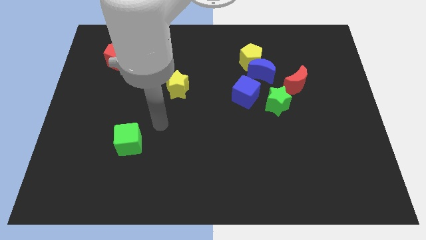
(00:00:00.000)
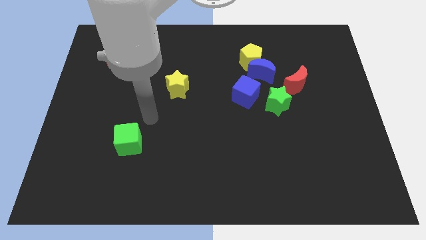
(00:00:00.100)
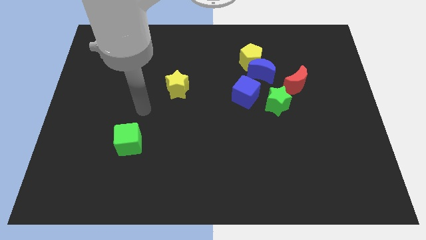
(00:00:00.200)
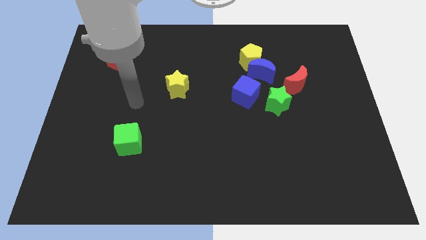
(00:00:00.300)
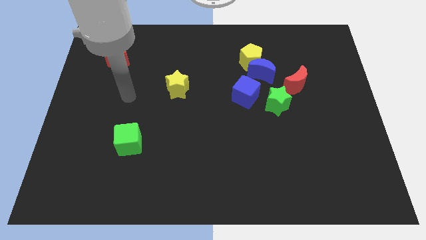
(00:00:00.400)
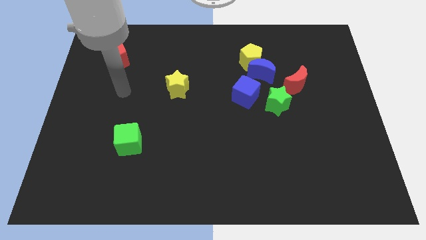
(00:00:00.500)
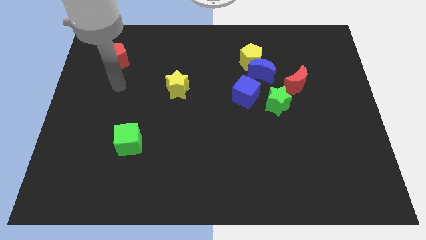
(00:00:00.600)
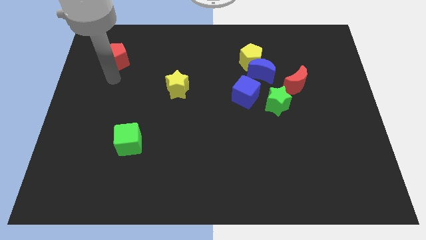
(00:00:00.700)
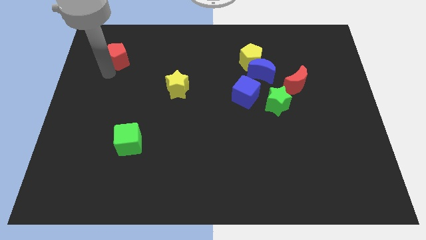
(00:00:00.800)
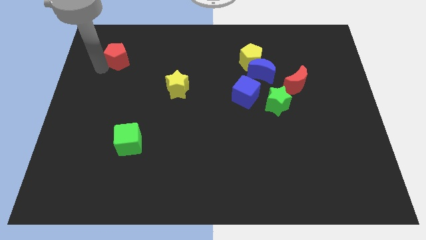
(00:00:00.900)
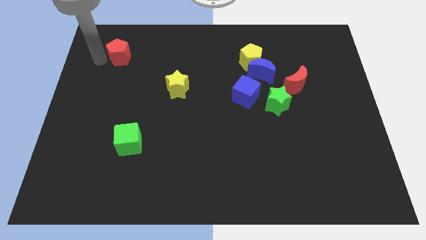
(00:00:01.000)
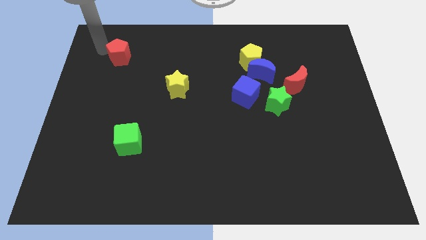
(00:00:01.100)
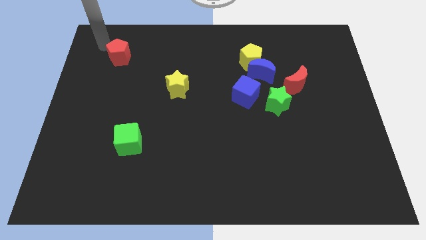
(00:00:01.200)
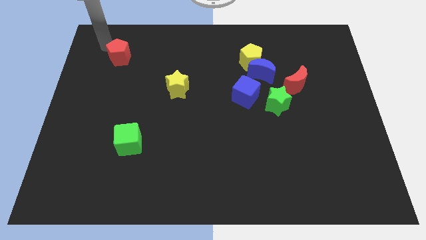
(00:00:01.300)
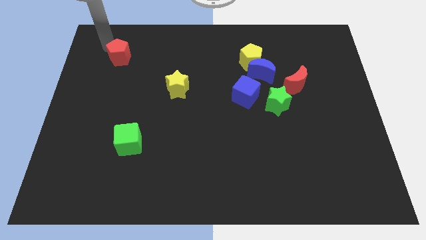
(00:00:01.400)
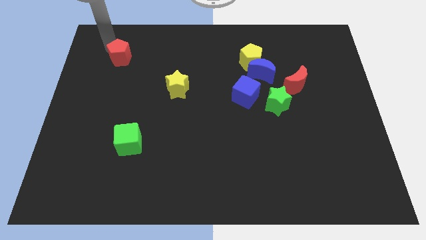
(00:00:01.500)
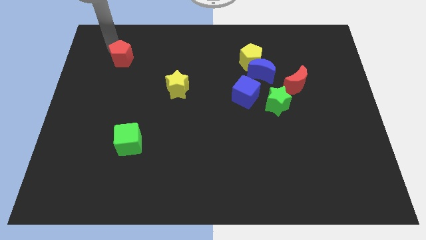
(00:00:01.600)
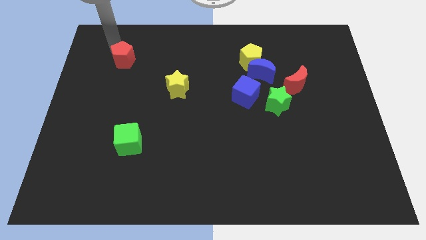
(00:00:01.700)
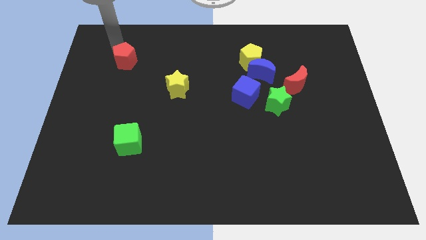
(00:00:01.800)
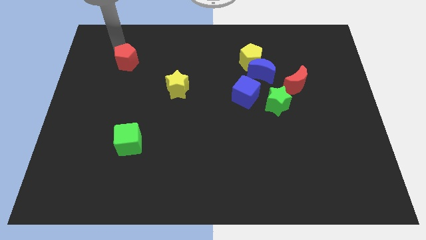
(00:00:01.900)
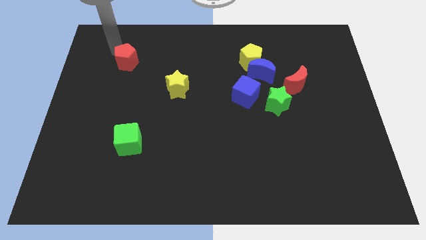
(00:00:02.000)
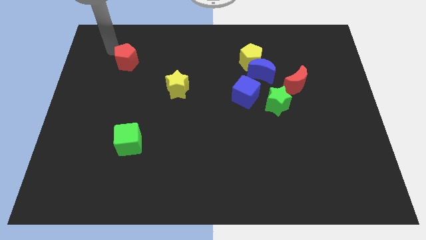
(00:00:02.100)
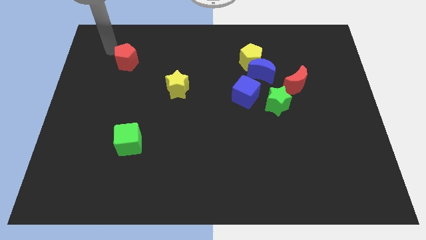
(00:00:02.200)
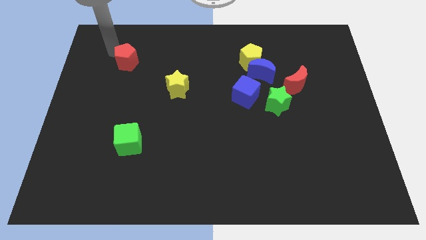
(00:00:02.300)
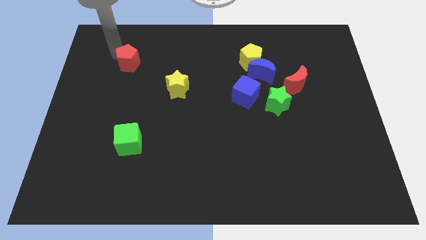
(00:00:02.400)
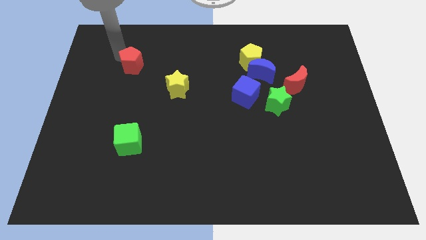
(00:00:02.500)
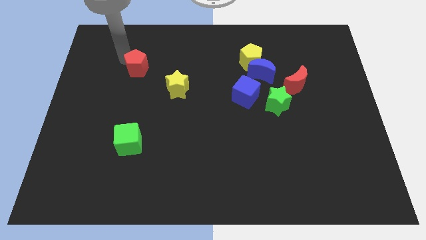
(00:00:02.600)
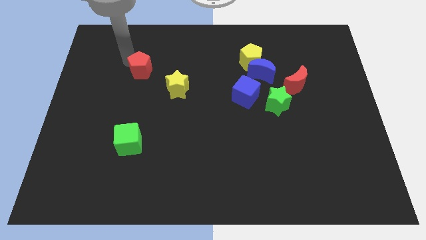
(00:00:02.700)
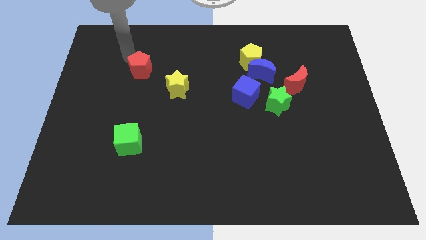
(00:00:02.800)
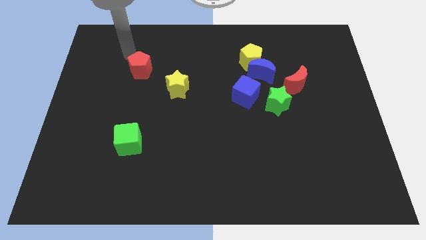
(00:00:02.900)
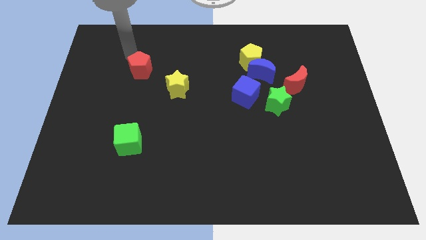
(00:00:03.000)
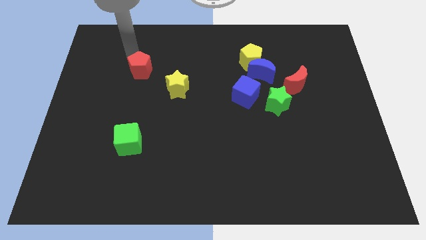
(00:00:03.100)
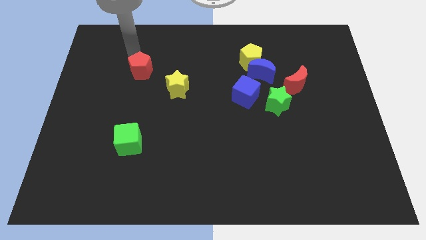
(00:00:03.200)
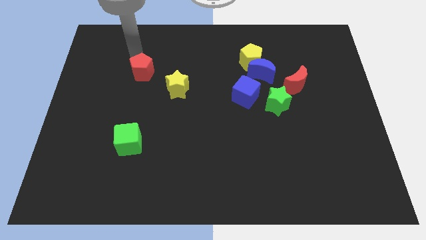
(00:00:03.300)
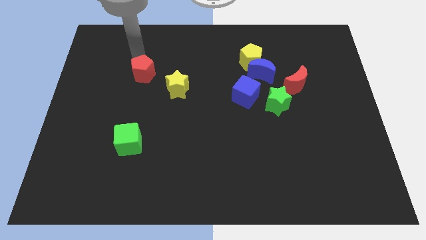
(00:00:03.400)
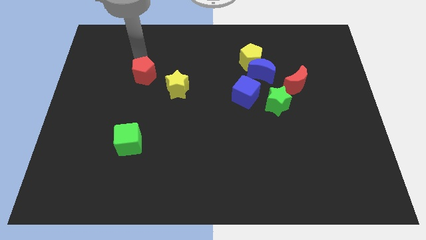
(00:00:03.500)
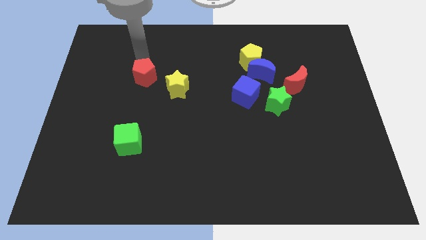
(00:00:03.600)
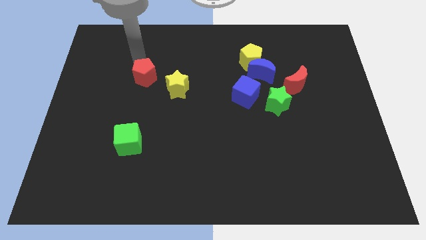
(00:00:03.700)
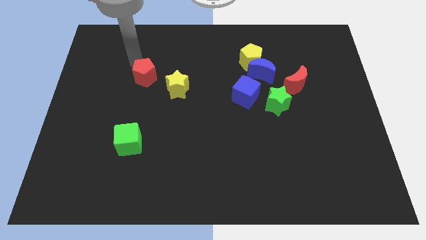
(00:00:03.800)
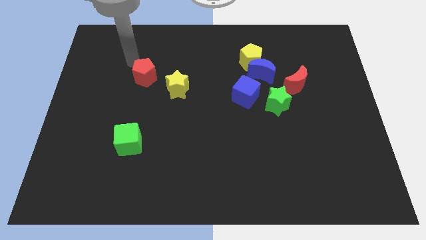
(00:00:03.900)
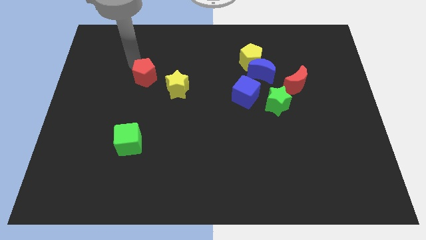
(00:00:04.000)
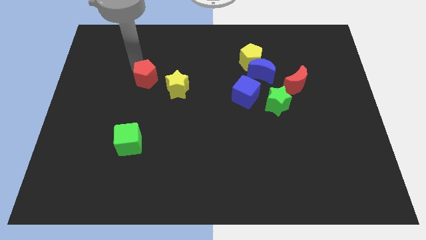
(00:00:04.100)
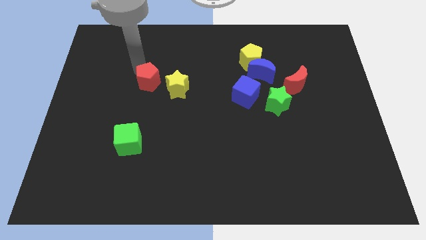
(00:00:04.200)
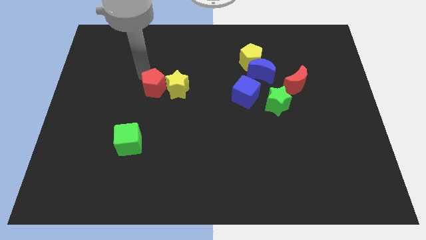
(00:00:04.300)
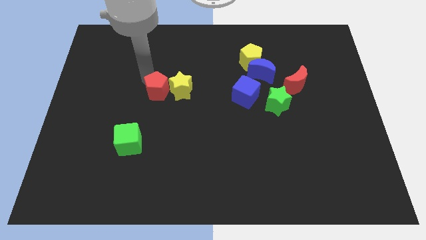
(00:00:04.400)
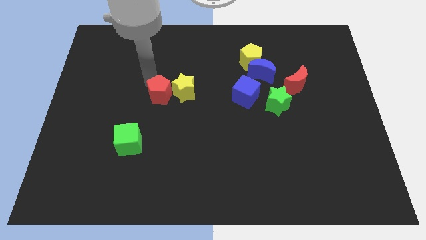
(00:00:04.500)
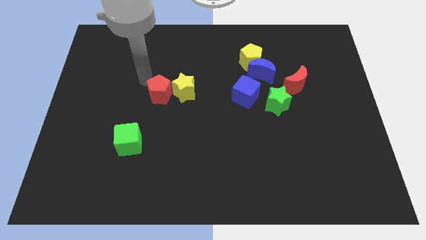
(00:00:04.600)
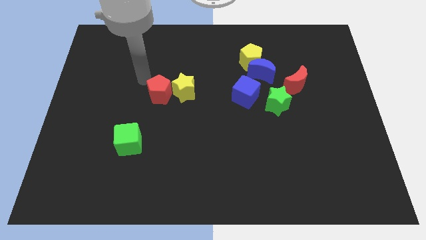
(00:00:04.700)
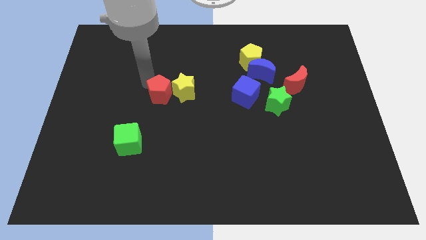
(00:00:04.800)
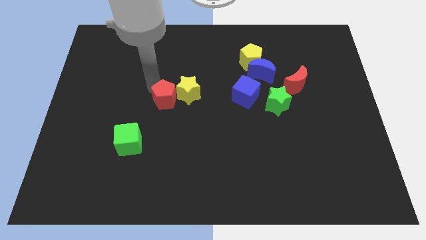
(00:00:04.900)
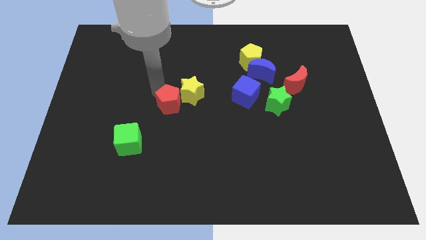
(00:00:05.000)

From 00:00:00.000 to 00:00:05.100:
move the red pentagon down and right diagonally

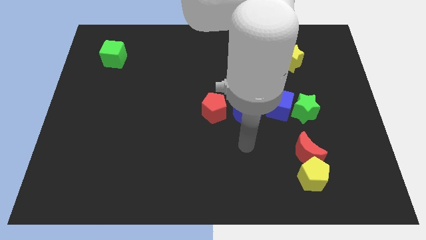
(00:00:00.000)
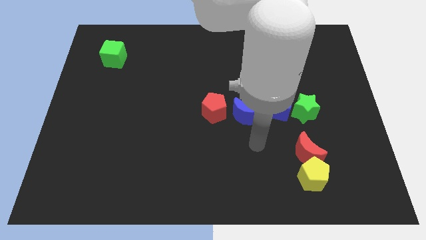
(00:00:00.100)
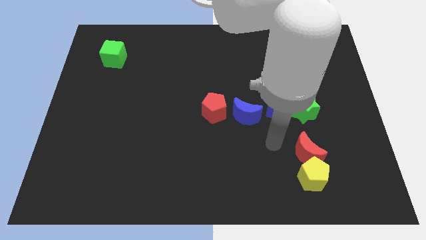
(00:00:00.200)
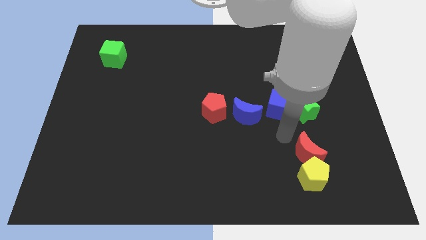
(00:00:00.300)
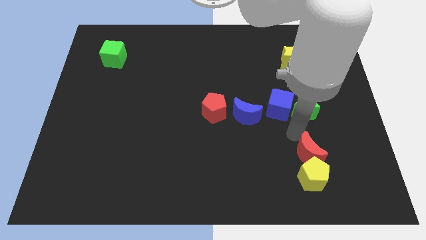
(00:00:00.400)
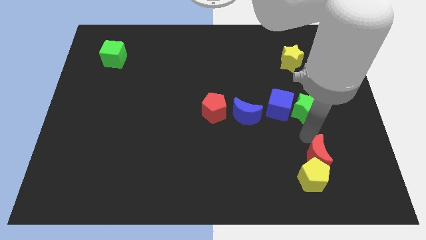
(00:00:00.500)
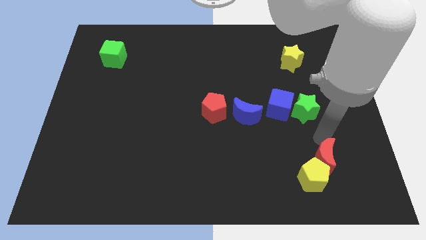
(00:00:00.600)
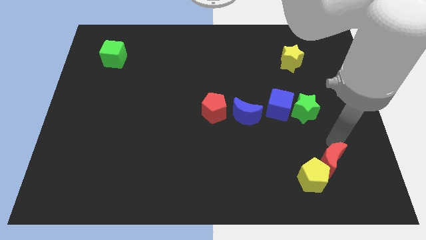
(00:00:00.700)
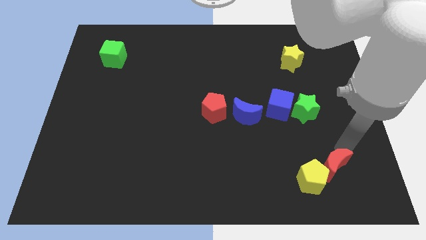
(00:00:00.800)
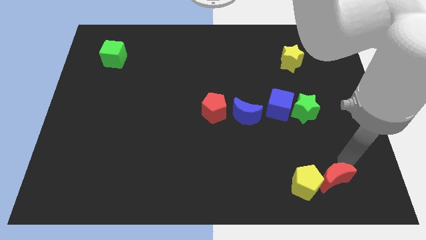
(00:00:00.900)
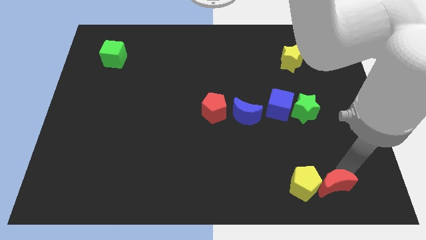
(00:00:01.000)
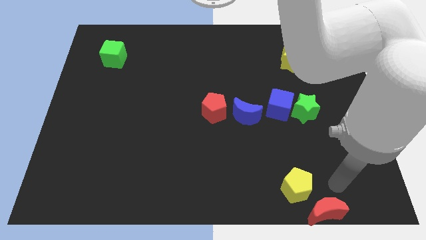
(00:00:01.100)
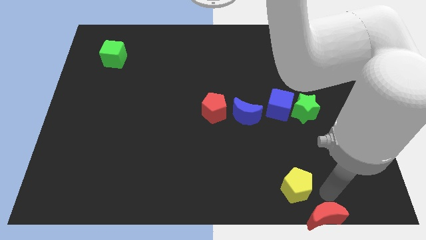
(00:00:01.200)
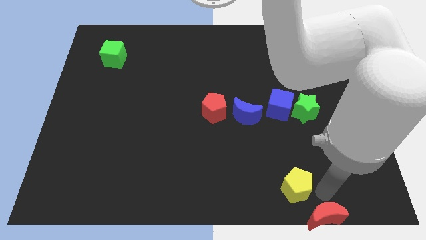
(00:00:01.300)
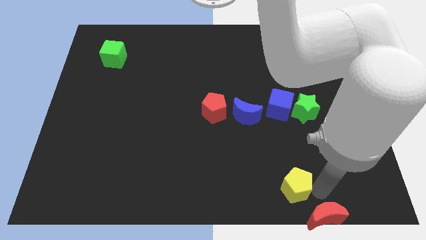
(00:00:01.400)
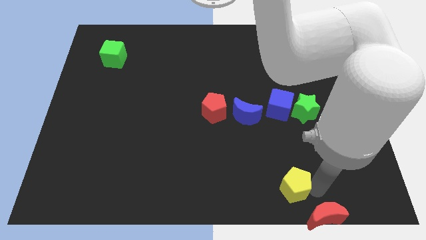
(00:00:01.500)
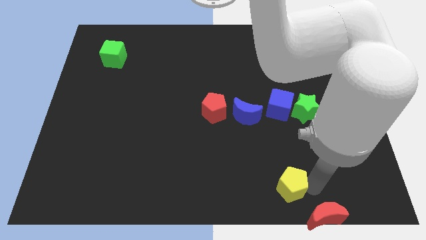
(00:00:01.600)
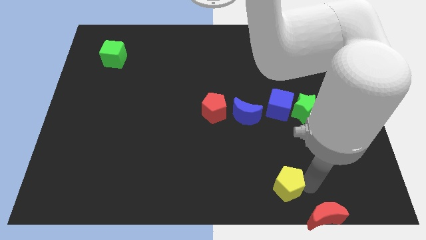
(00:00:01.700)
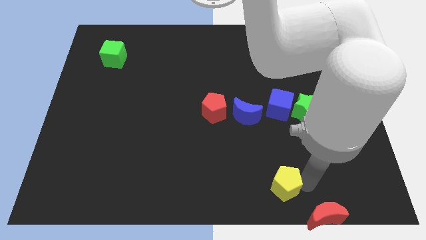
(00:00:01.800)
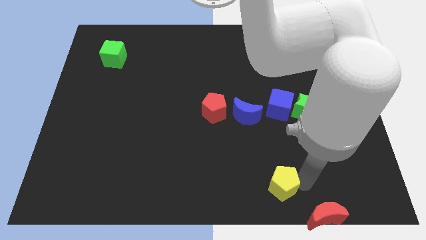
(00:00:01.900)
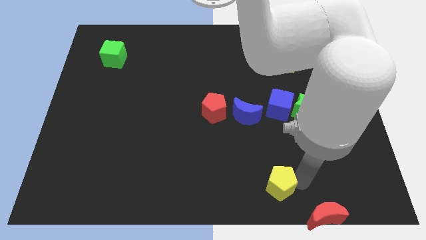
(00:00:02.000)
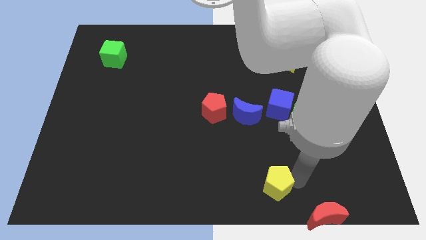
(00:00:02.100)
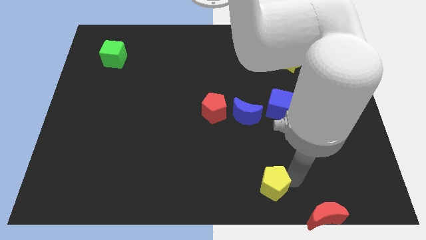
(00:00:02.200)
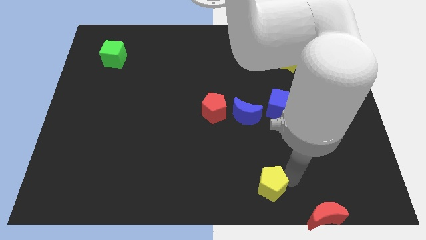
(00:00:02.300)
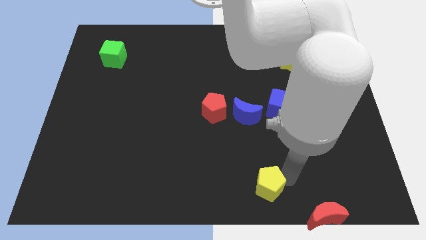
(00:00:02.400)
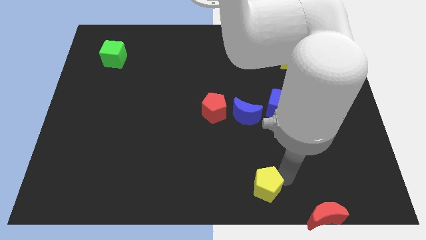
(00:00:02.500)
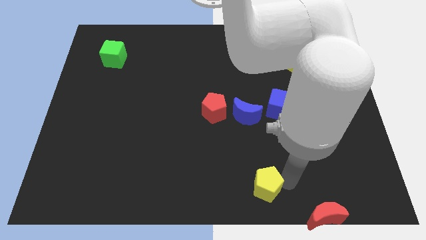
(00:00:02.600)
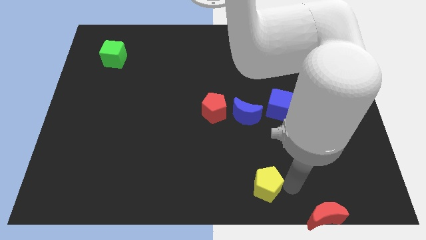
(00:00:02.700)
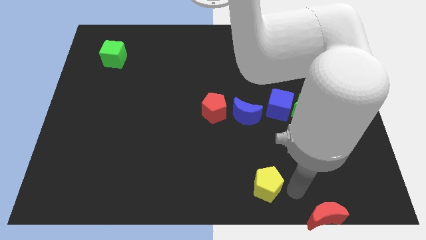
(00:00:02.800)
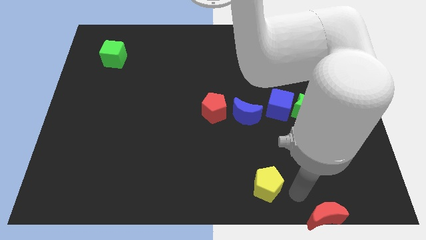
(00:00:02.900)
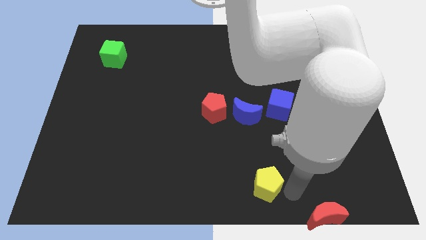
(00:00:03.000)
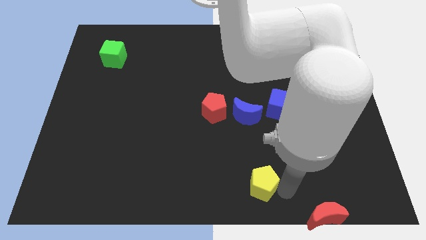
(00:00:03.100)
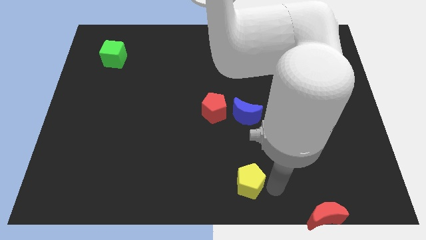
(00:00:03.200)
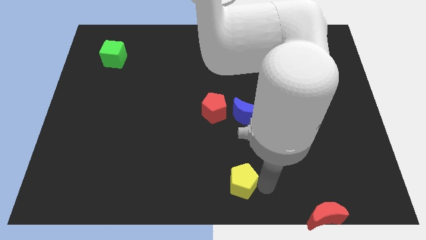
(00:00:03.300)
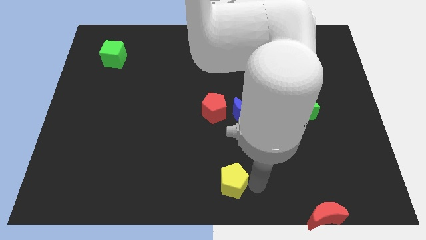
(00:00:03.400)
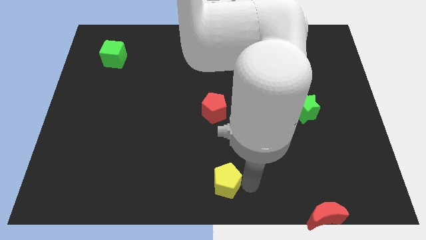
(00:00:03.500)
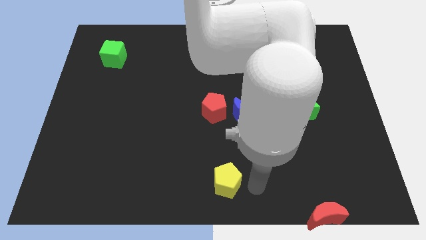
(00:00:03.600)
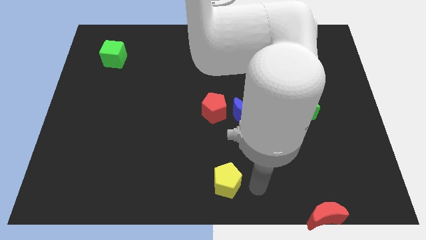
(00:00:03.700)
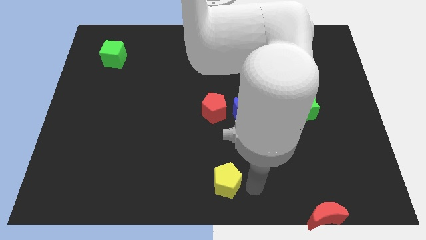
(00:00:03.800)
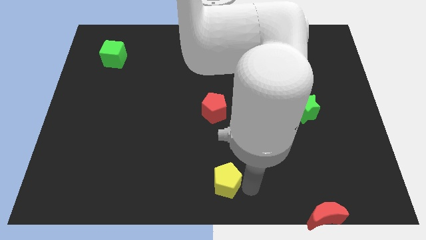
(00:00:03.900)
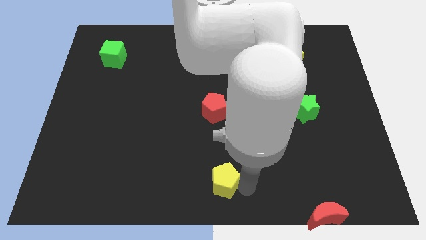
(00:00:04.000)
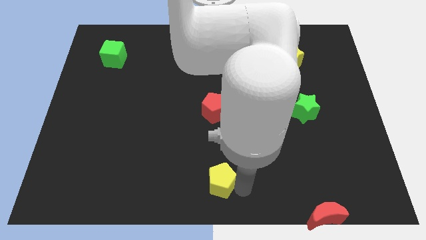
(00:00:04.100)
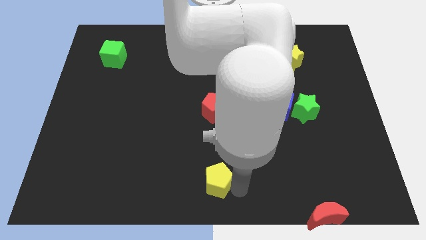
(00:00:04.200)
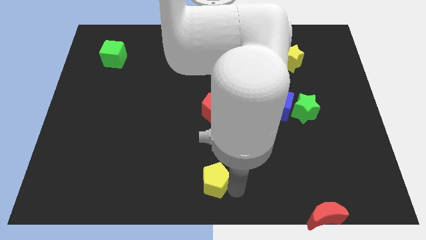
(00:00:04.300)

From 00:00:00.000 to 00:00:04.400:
push the yellow pentagon left
